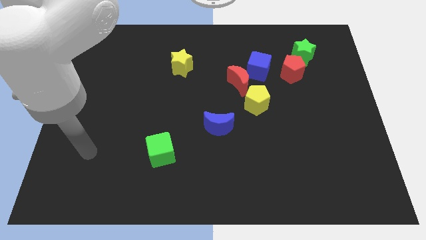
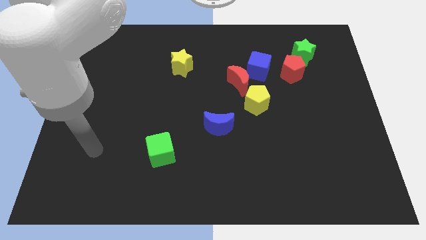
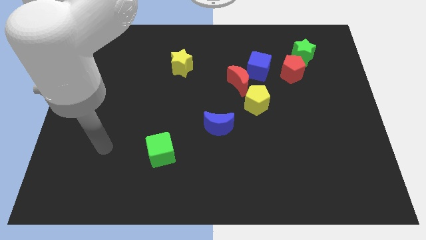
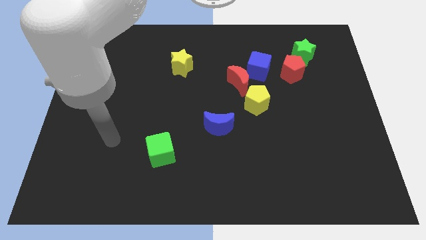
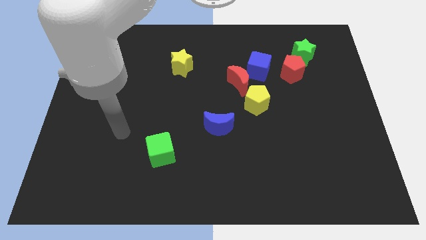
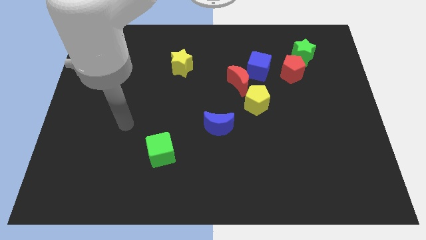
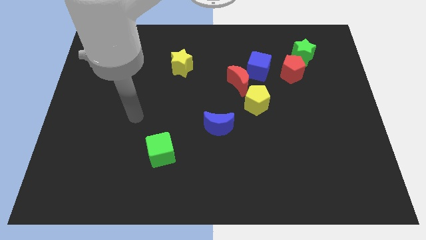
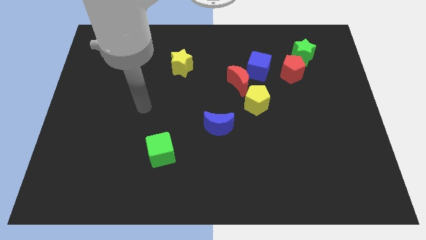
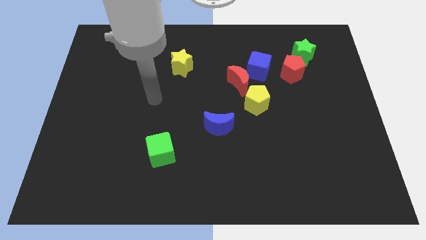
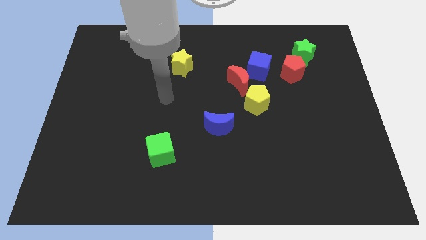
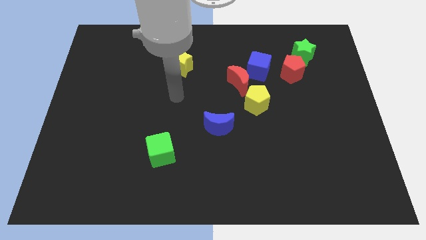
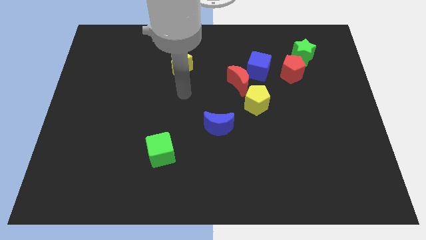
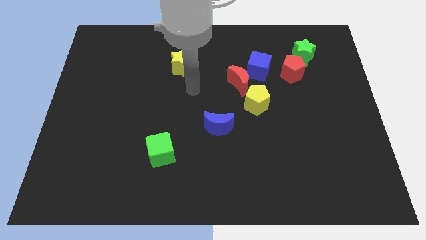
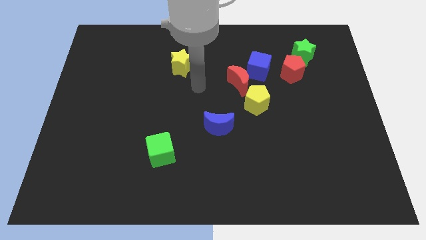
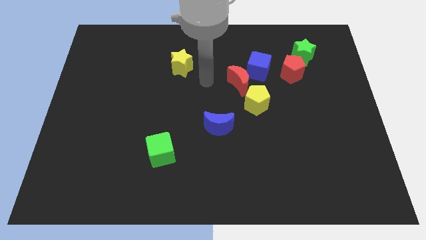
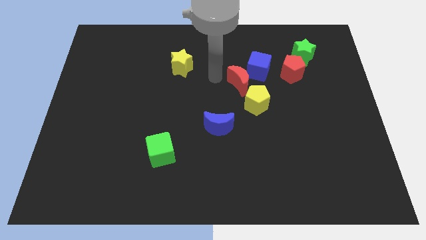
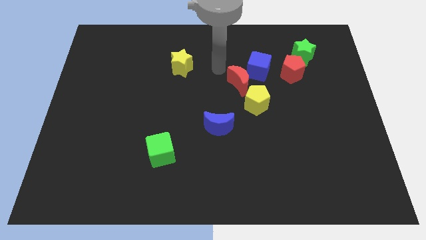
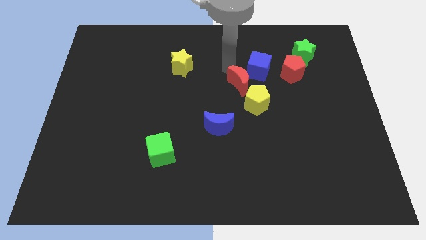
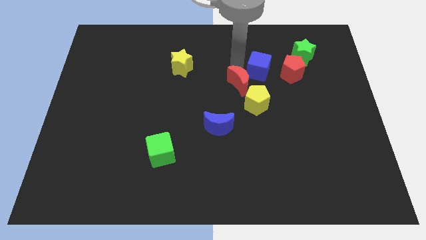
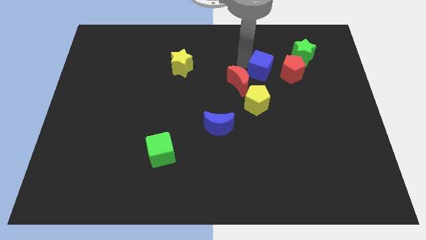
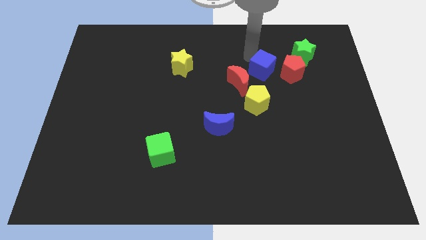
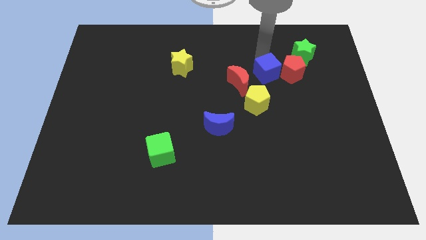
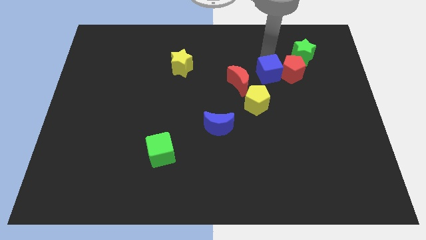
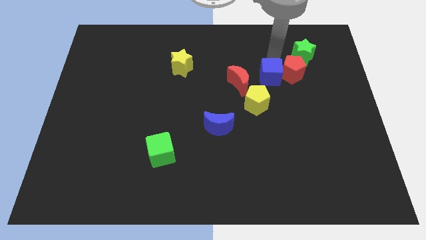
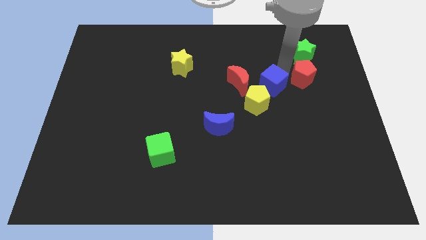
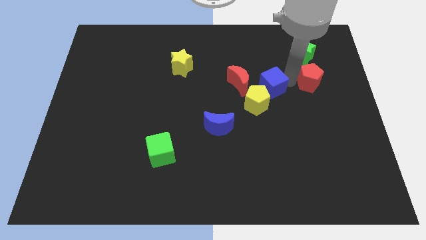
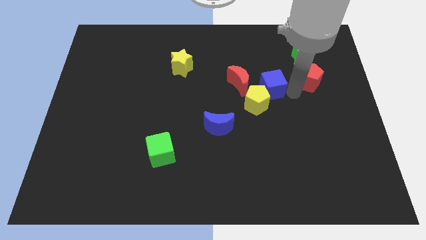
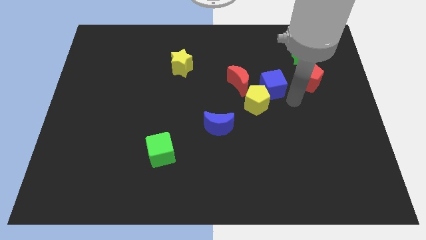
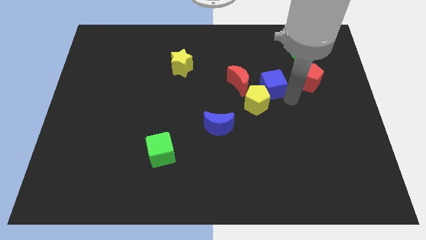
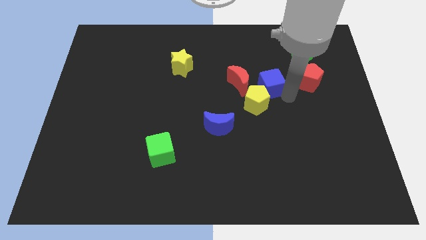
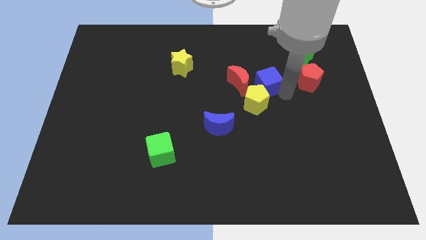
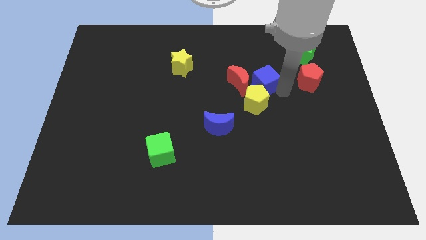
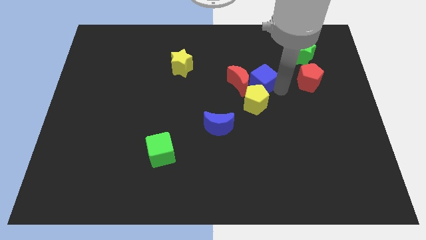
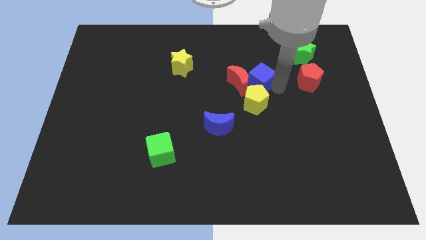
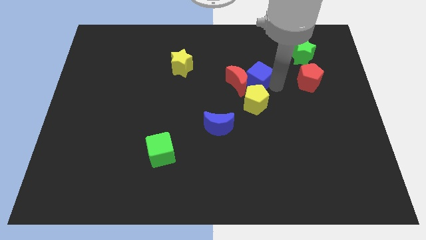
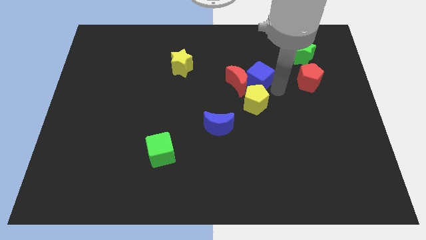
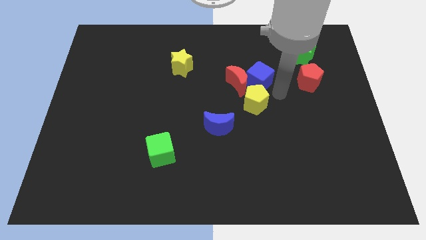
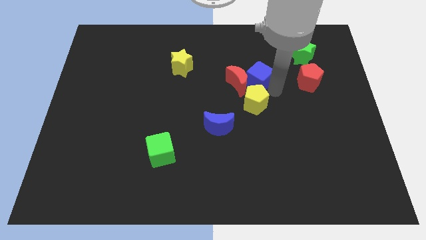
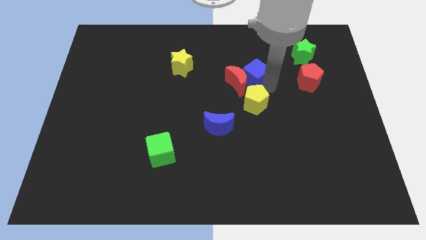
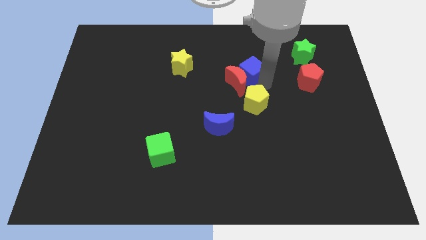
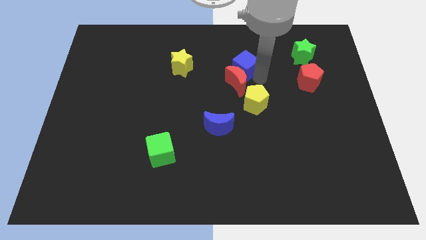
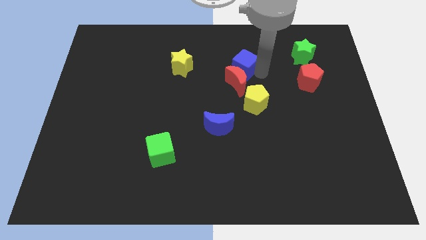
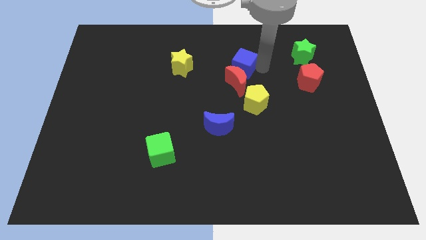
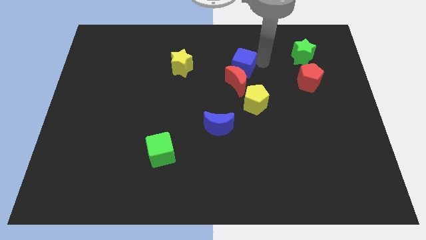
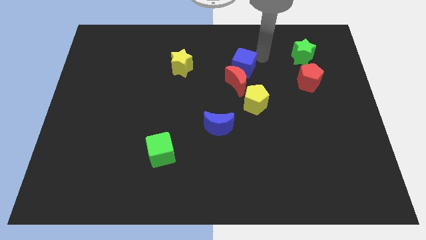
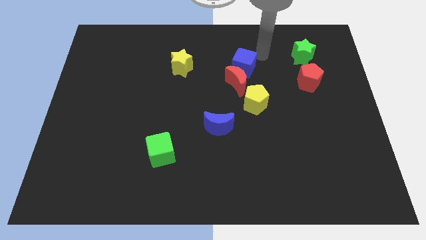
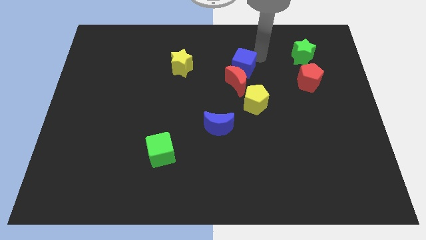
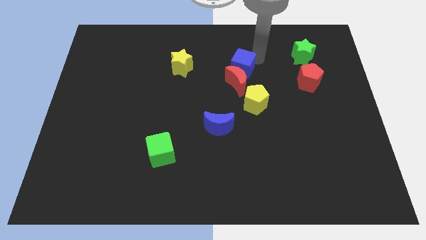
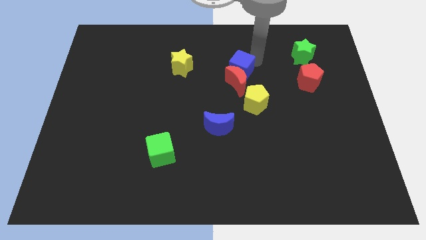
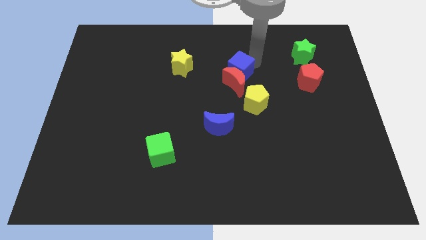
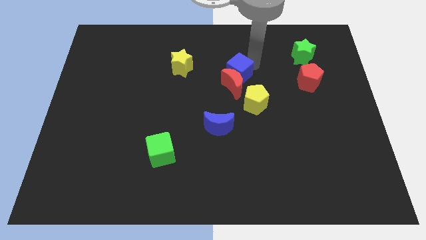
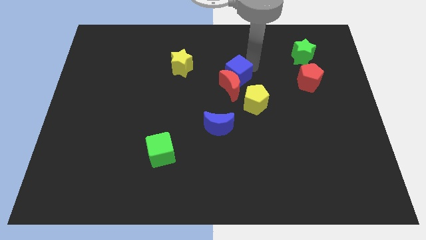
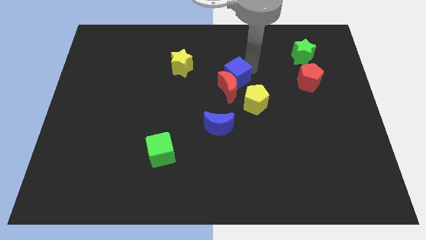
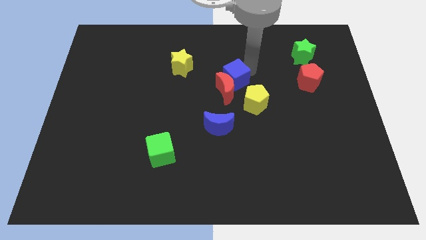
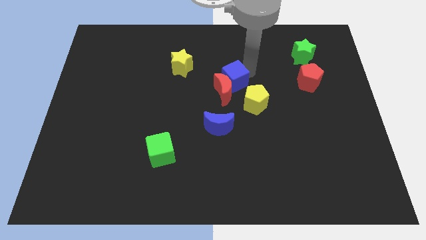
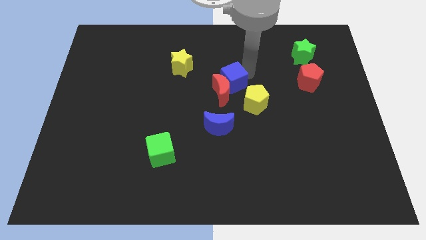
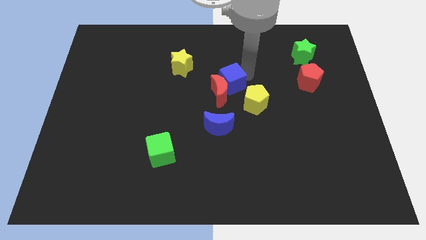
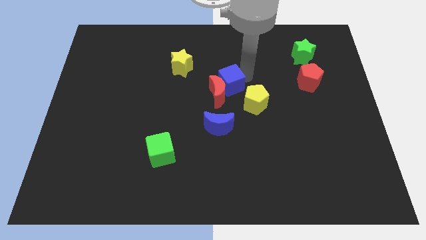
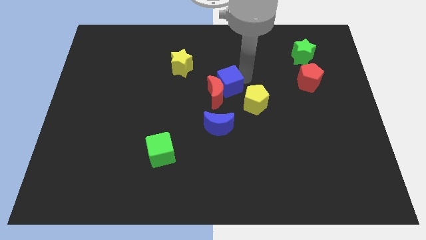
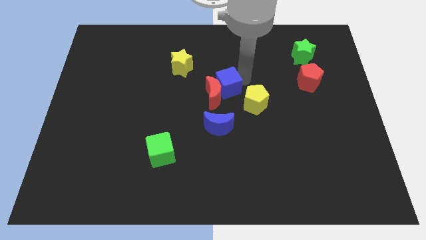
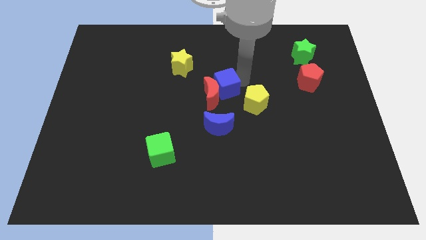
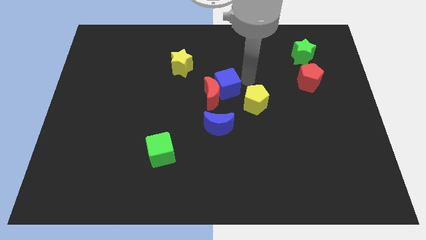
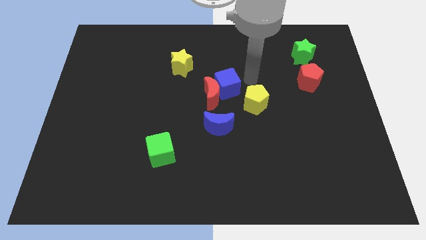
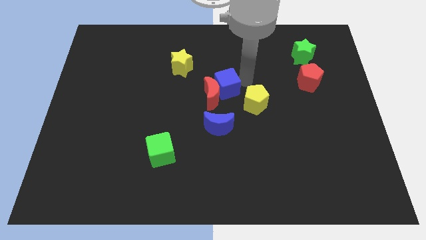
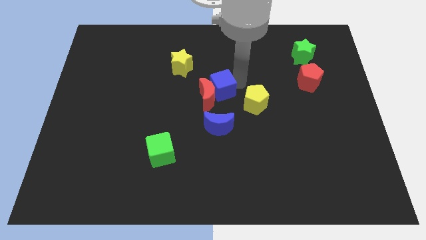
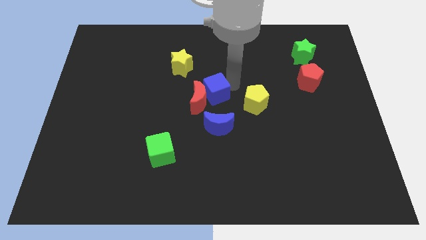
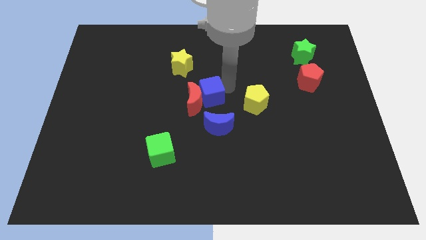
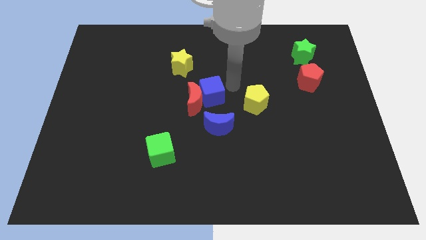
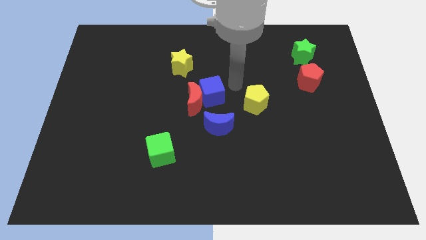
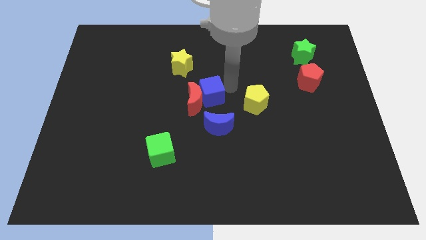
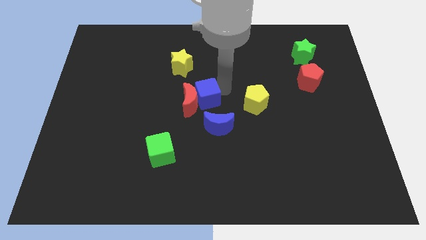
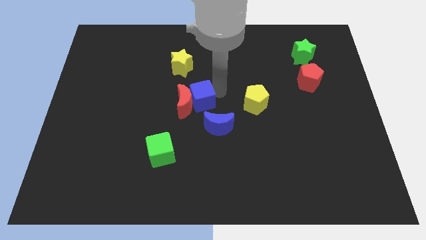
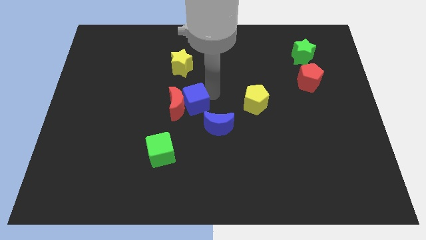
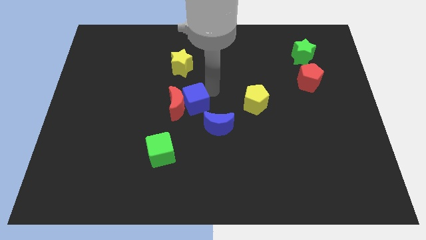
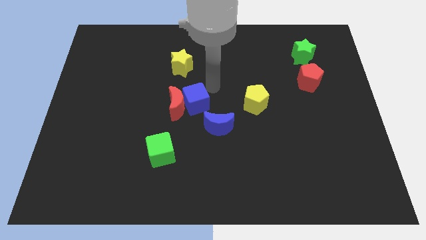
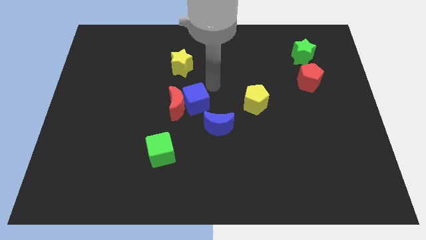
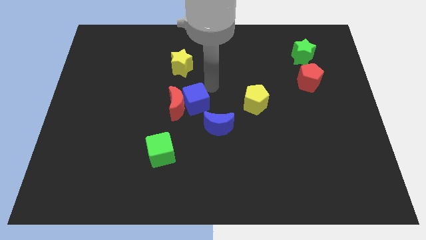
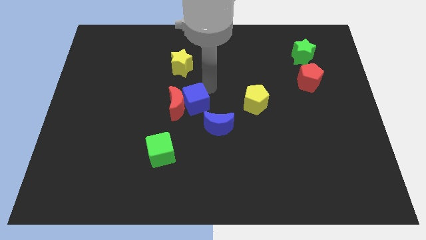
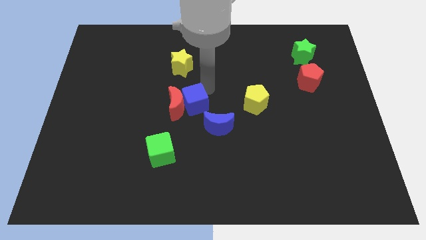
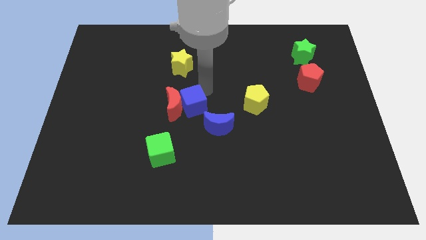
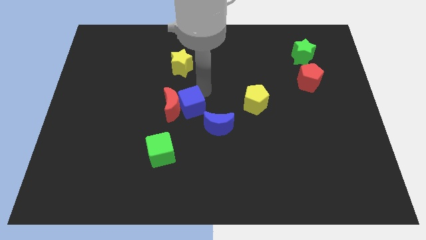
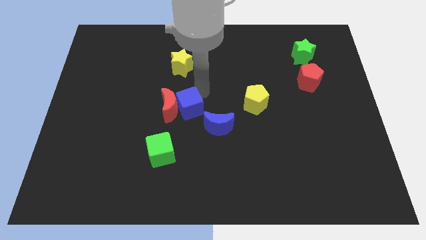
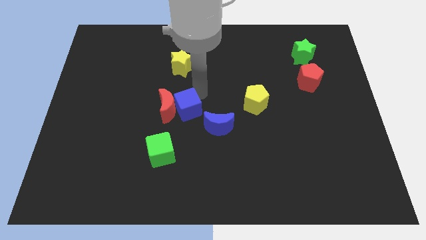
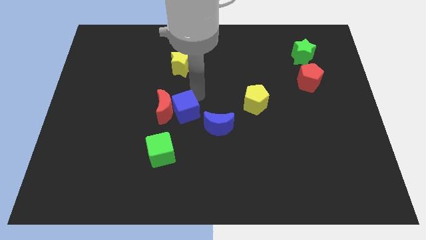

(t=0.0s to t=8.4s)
slide the blue cube just left of the blue moon
